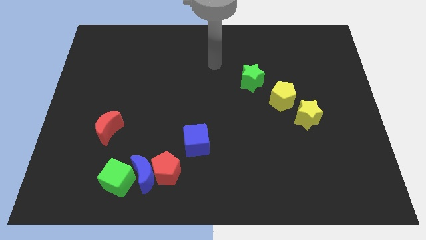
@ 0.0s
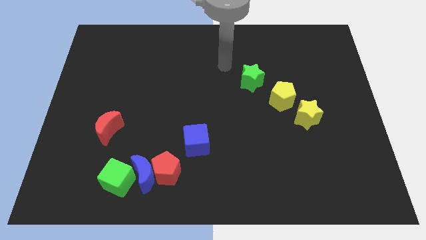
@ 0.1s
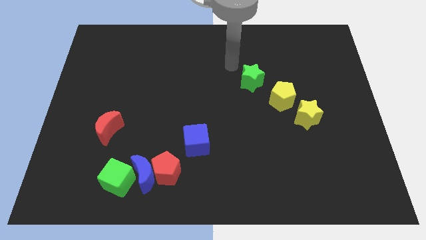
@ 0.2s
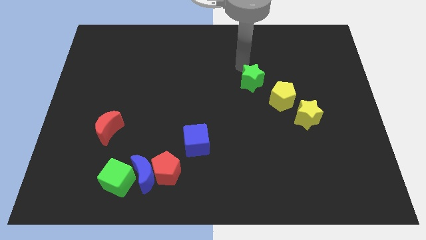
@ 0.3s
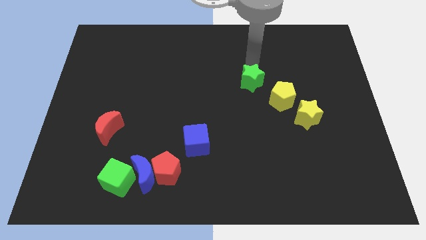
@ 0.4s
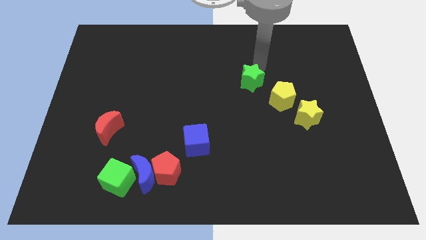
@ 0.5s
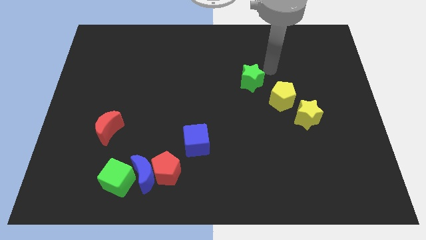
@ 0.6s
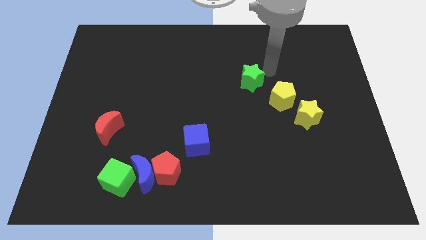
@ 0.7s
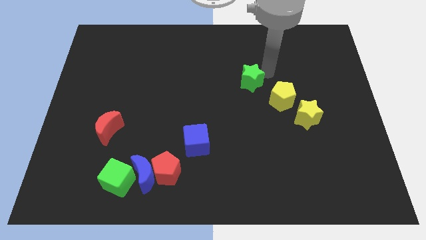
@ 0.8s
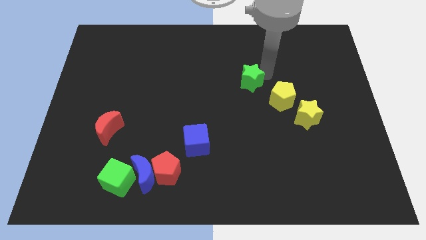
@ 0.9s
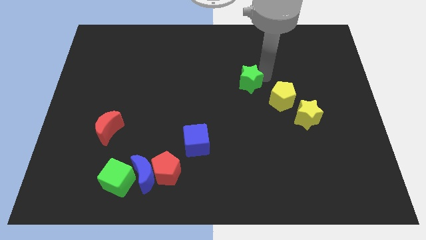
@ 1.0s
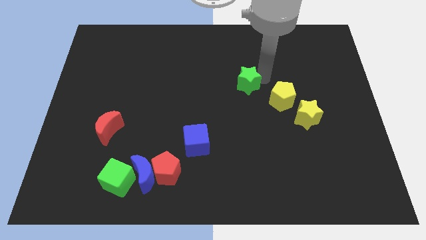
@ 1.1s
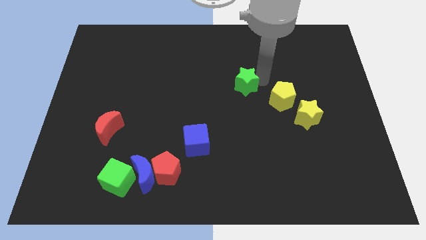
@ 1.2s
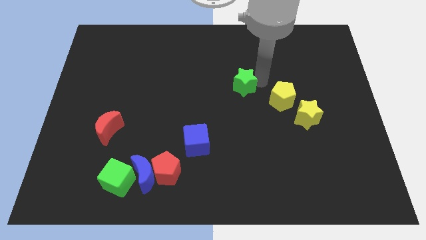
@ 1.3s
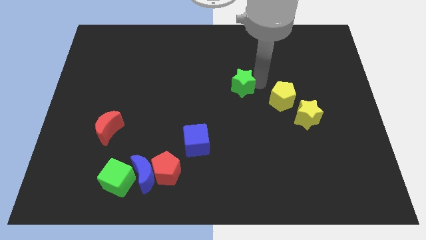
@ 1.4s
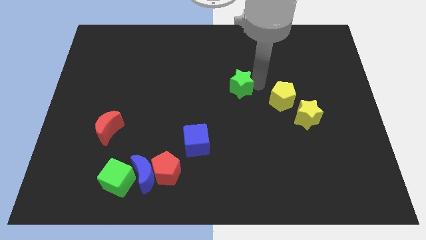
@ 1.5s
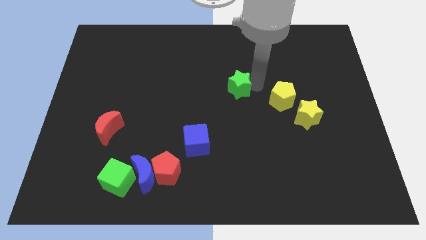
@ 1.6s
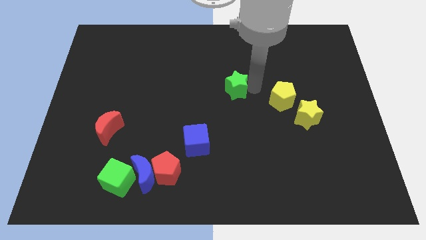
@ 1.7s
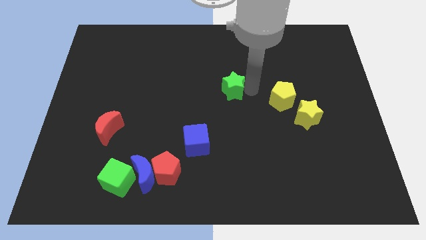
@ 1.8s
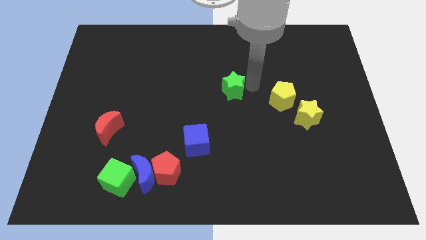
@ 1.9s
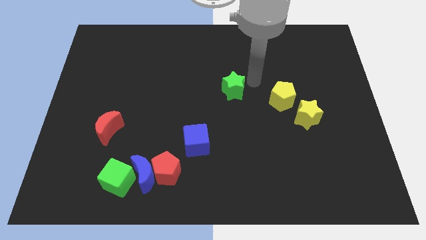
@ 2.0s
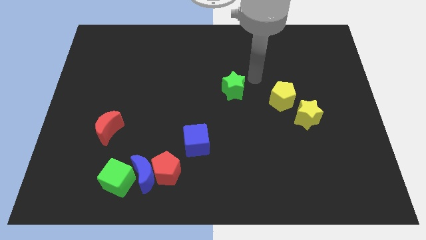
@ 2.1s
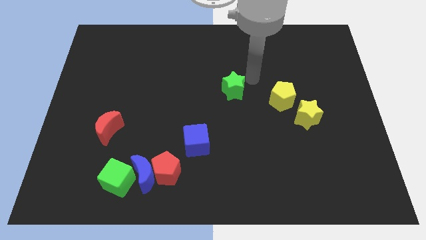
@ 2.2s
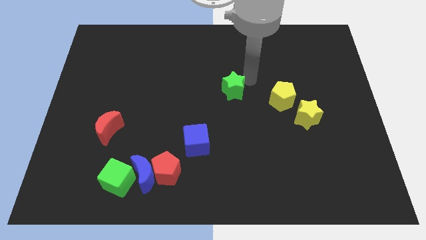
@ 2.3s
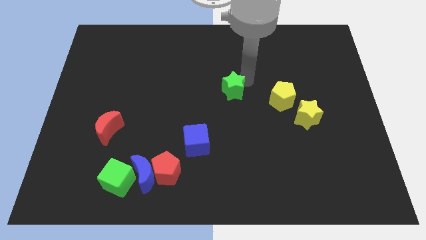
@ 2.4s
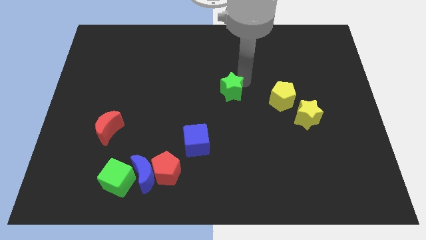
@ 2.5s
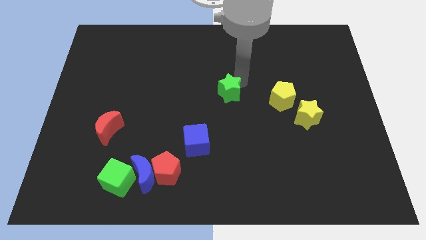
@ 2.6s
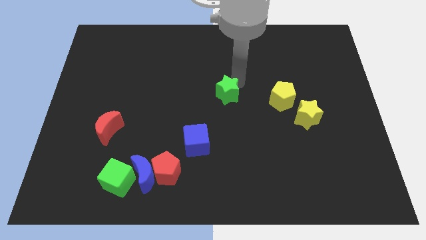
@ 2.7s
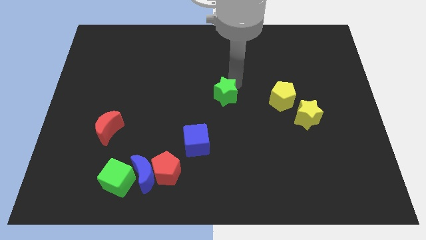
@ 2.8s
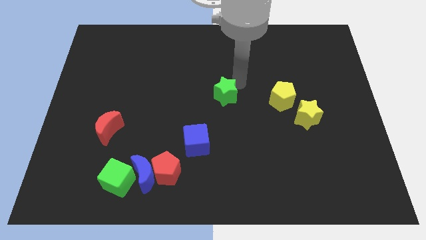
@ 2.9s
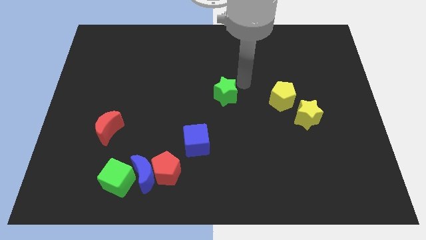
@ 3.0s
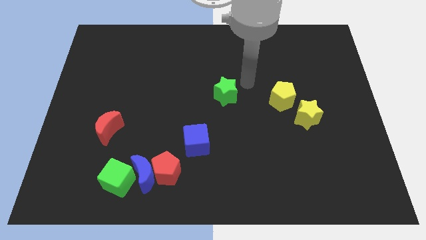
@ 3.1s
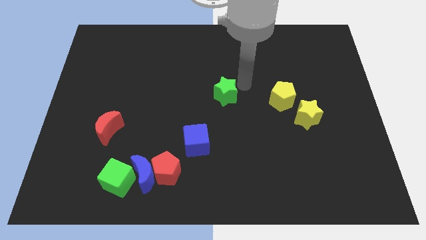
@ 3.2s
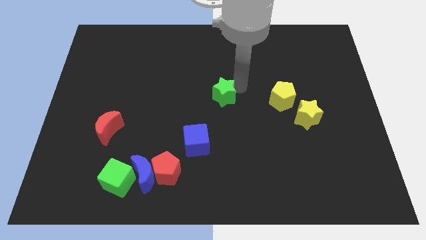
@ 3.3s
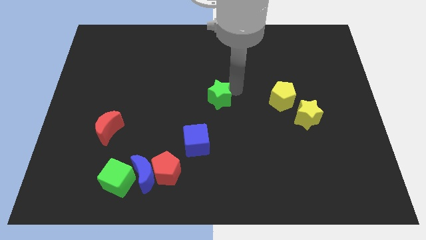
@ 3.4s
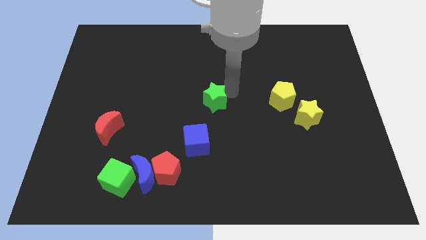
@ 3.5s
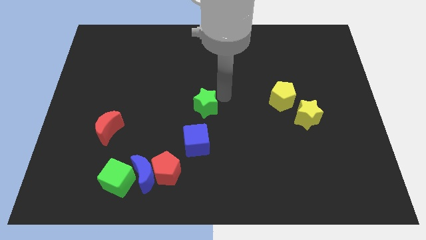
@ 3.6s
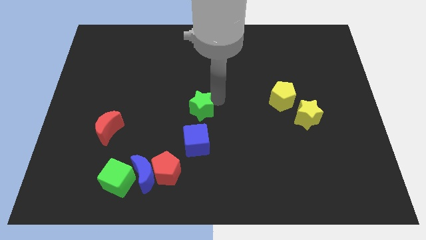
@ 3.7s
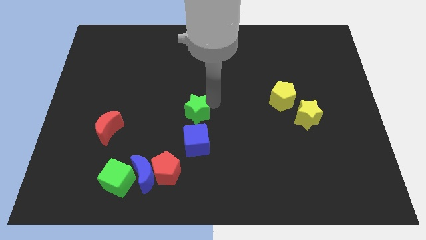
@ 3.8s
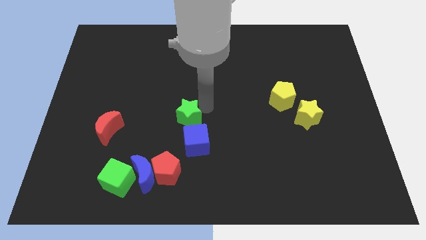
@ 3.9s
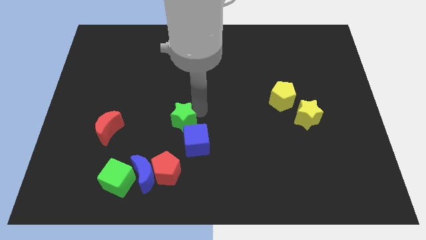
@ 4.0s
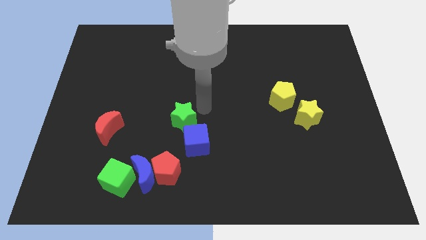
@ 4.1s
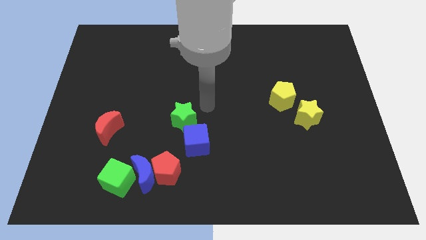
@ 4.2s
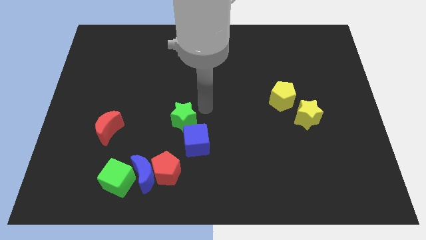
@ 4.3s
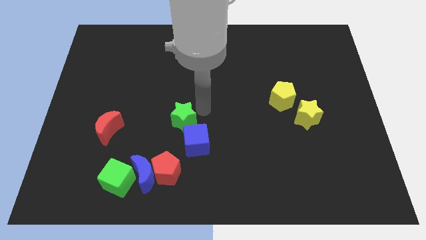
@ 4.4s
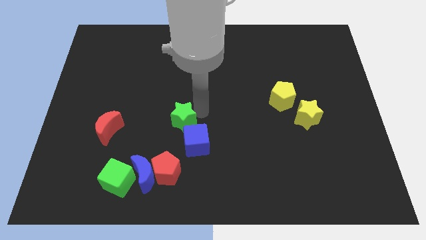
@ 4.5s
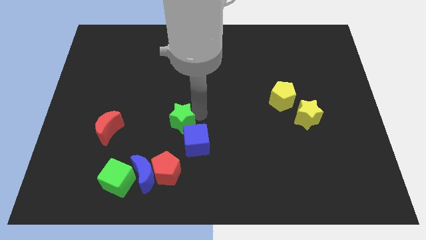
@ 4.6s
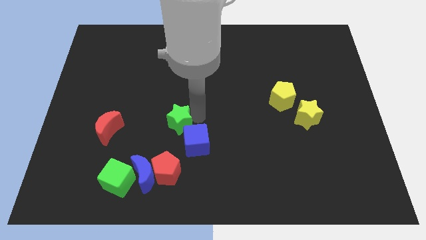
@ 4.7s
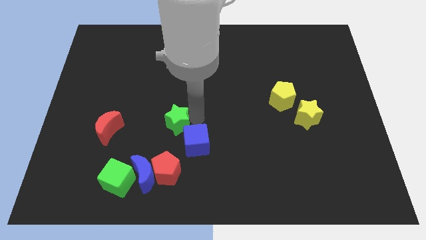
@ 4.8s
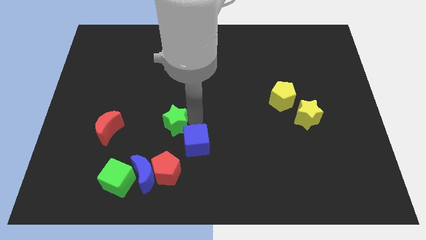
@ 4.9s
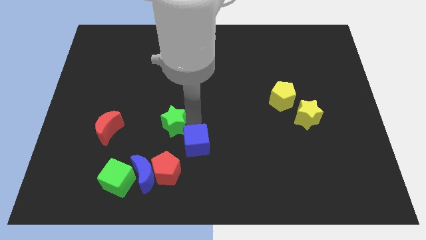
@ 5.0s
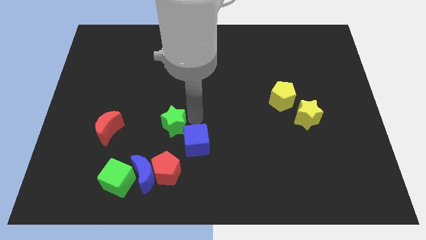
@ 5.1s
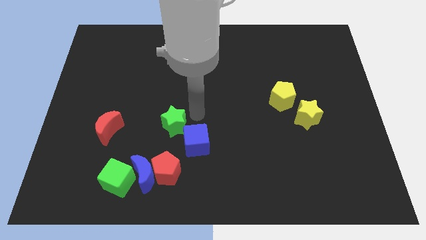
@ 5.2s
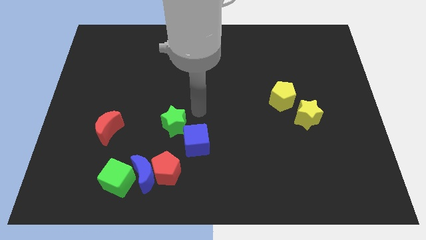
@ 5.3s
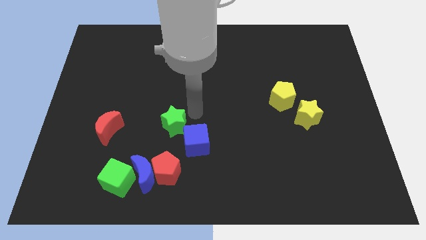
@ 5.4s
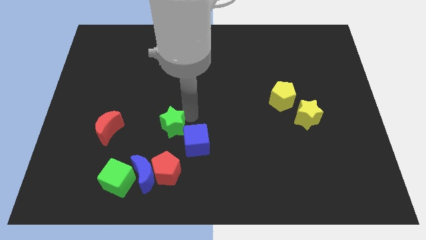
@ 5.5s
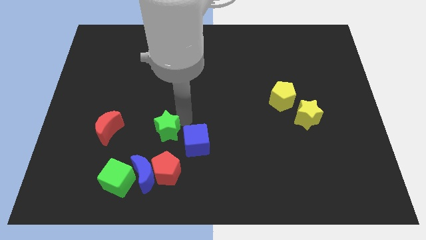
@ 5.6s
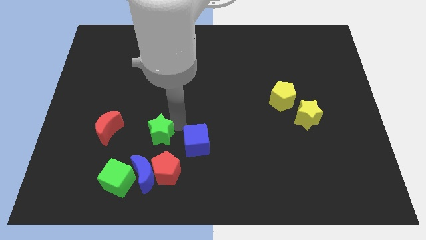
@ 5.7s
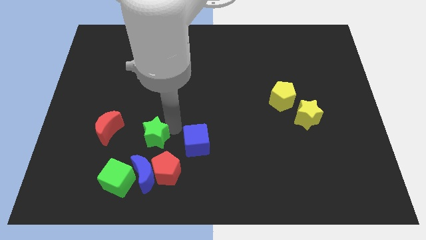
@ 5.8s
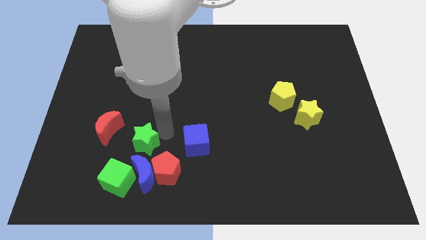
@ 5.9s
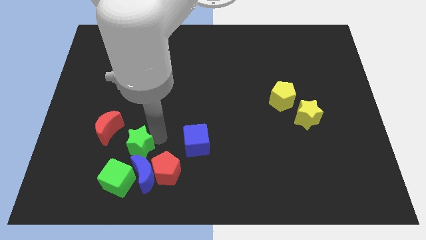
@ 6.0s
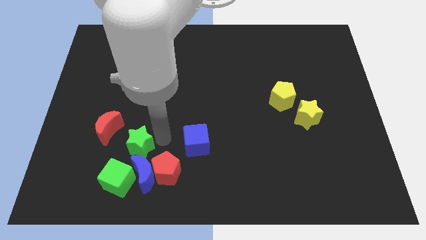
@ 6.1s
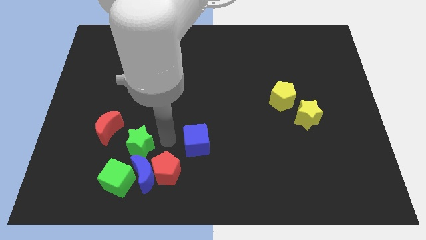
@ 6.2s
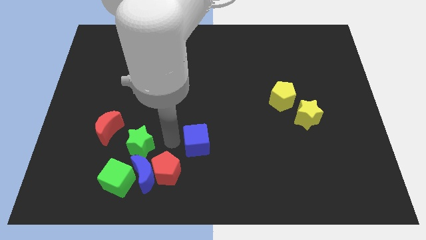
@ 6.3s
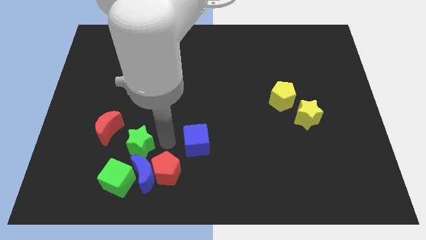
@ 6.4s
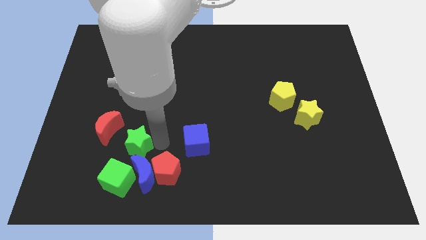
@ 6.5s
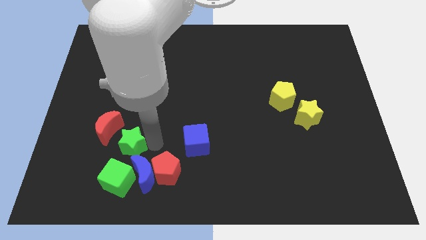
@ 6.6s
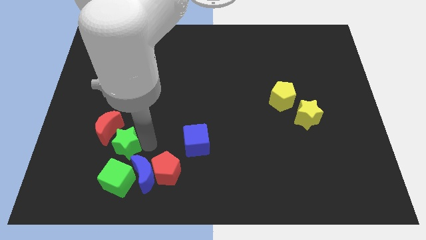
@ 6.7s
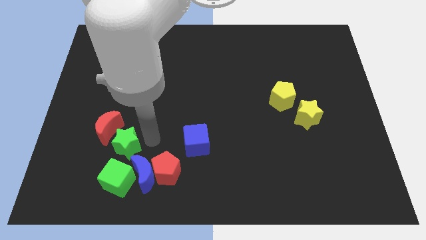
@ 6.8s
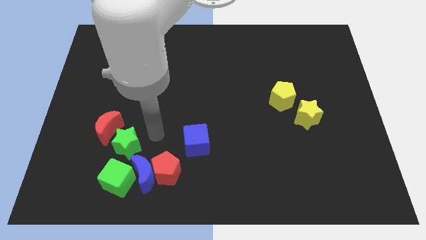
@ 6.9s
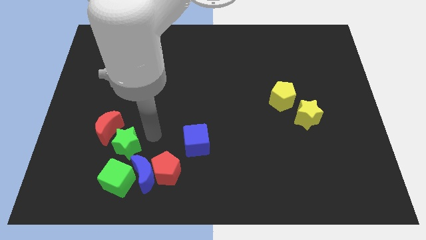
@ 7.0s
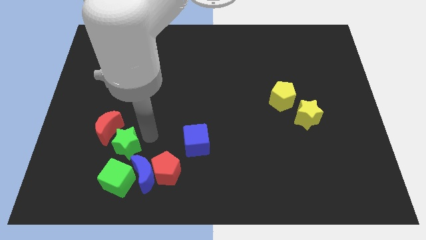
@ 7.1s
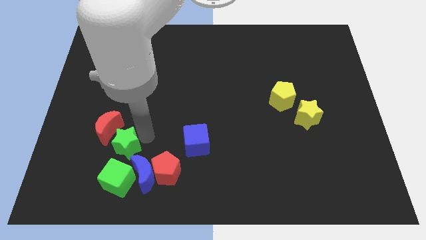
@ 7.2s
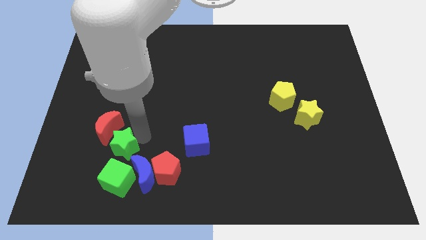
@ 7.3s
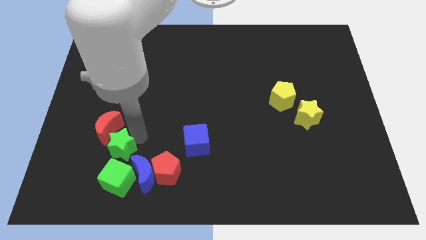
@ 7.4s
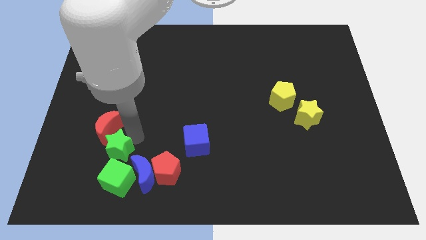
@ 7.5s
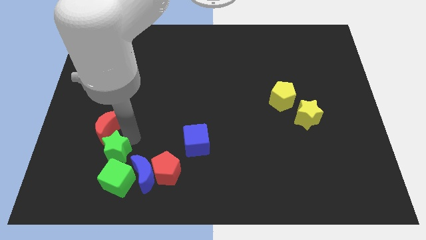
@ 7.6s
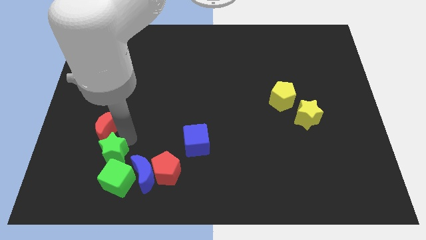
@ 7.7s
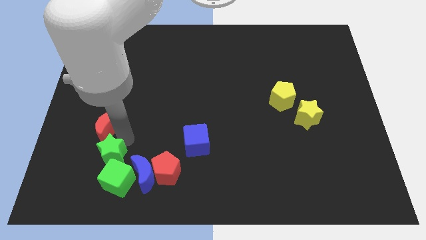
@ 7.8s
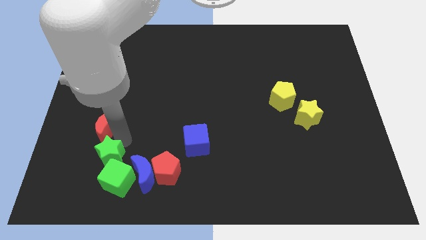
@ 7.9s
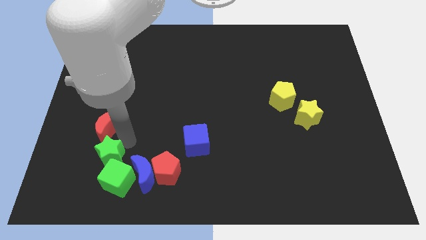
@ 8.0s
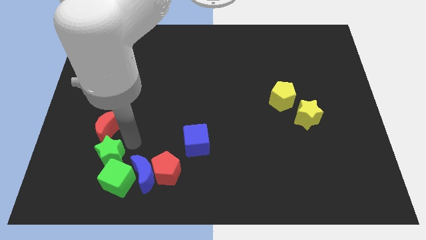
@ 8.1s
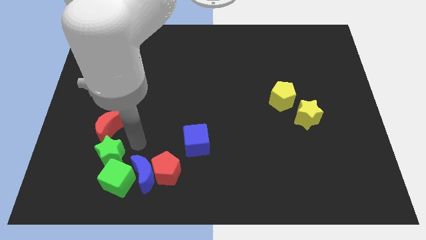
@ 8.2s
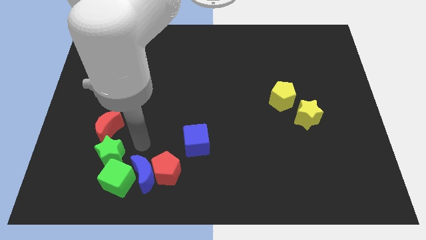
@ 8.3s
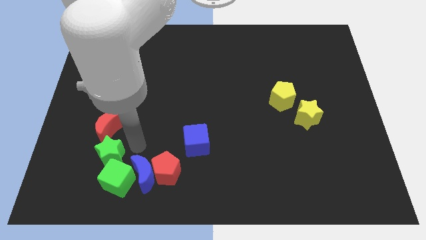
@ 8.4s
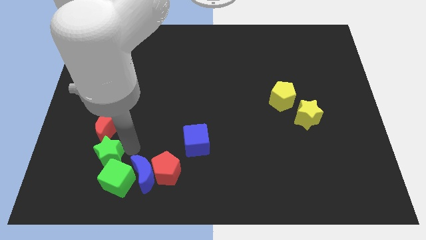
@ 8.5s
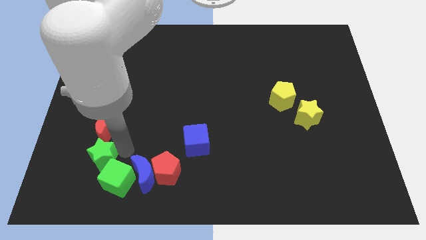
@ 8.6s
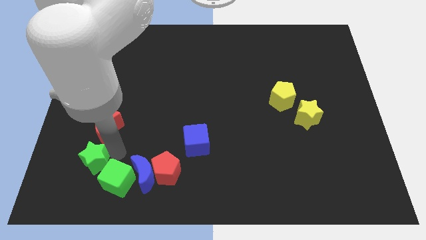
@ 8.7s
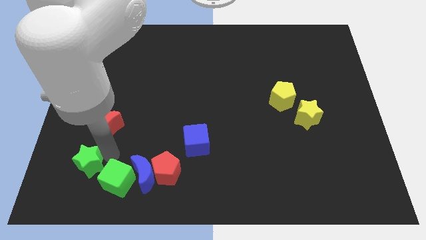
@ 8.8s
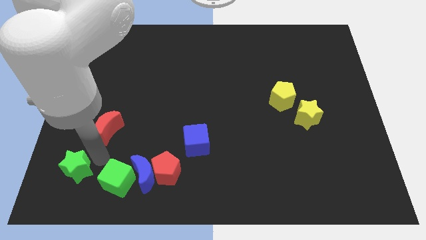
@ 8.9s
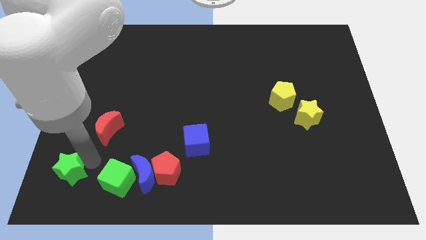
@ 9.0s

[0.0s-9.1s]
move the green star to the lower left corner
